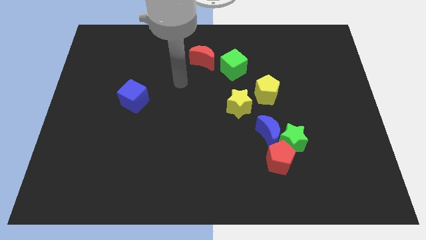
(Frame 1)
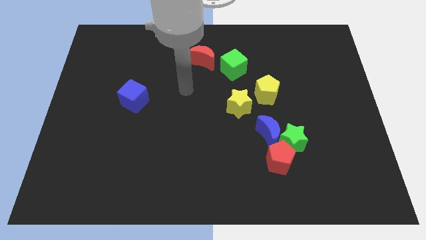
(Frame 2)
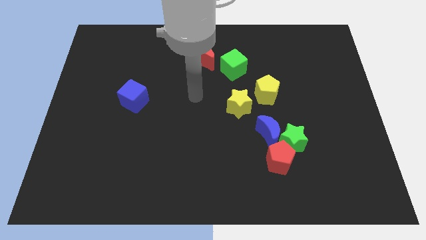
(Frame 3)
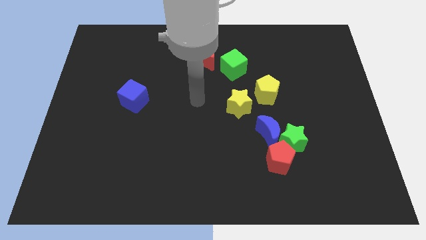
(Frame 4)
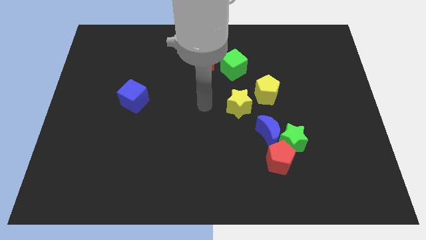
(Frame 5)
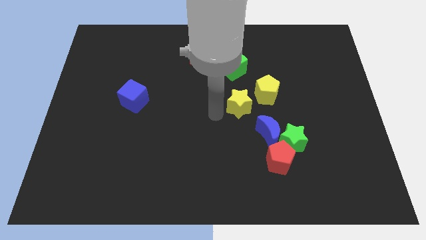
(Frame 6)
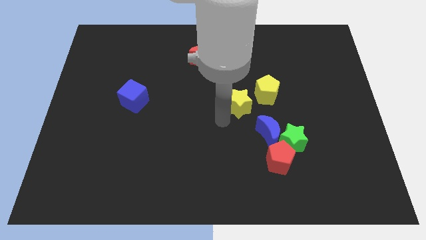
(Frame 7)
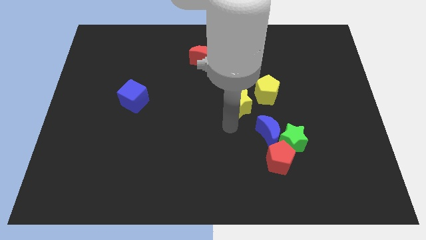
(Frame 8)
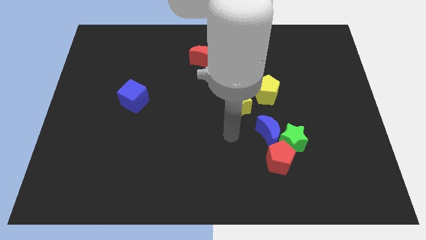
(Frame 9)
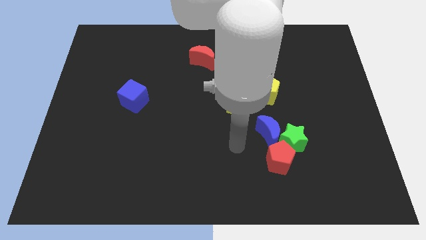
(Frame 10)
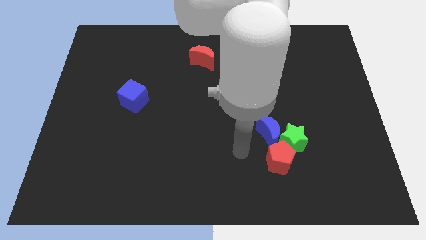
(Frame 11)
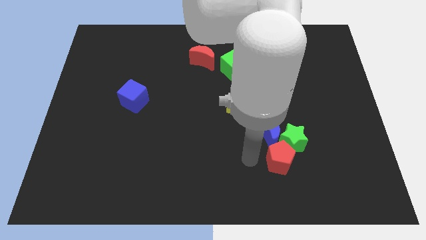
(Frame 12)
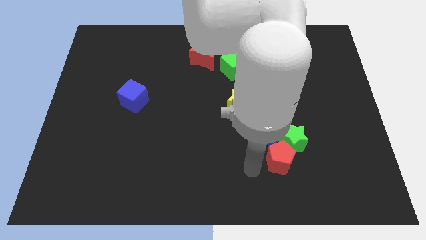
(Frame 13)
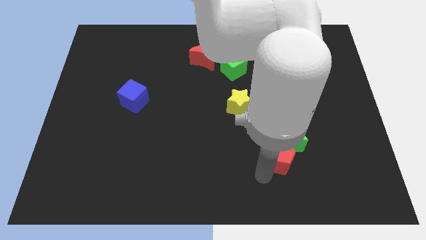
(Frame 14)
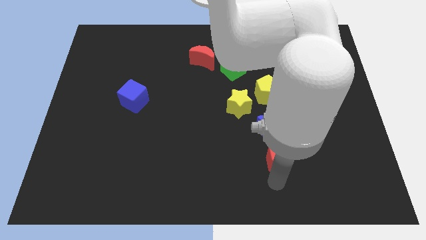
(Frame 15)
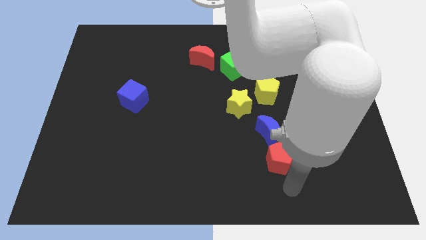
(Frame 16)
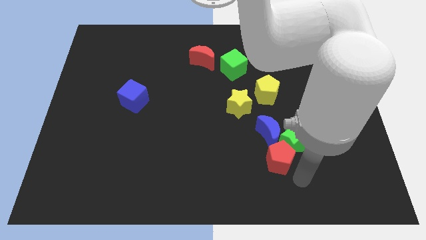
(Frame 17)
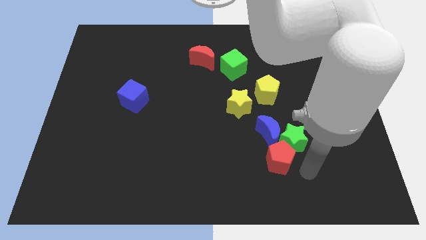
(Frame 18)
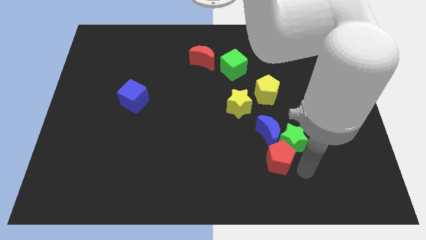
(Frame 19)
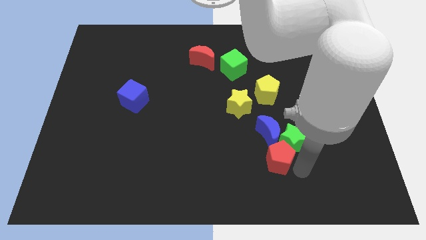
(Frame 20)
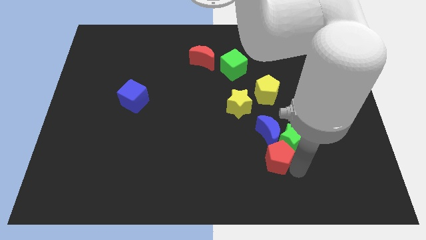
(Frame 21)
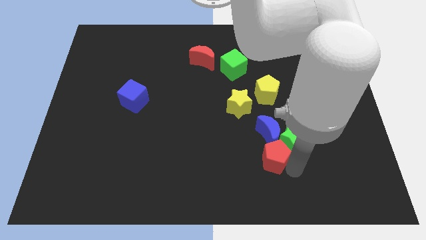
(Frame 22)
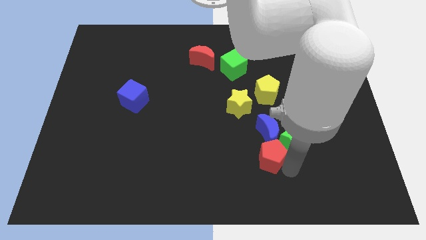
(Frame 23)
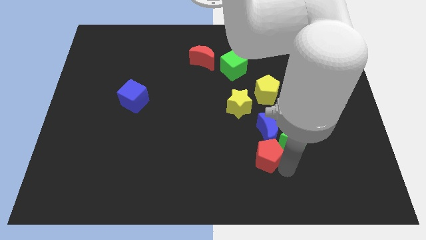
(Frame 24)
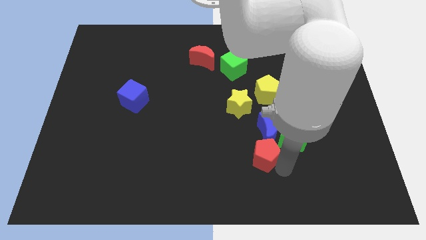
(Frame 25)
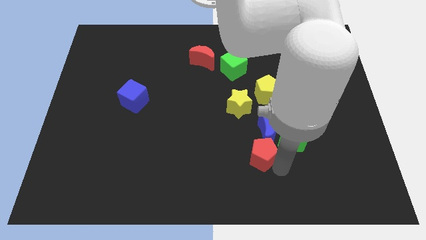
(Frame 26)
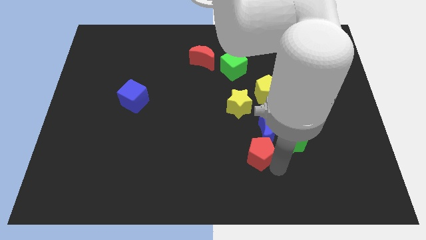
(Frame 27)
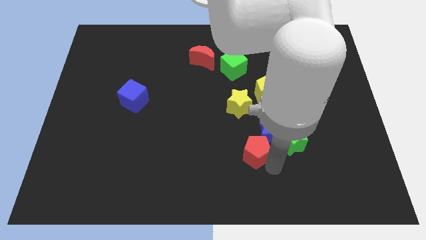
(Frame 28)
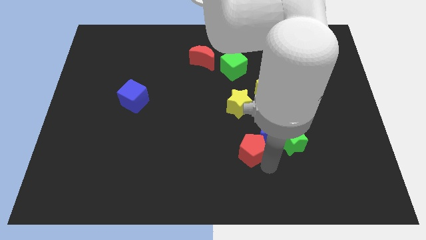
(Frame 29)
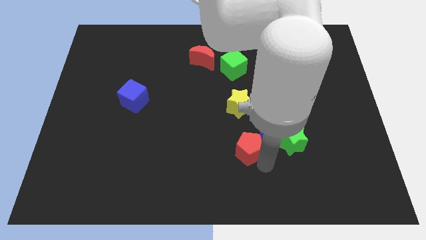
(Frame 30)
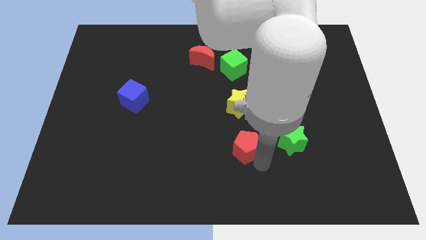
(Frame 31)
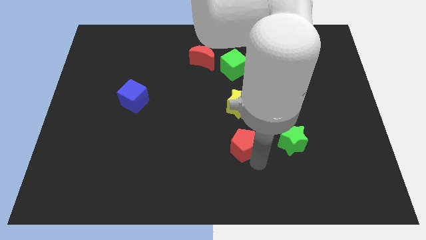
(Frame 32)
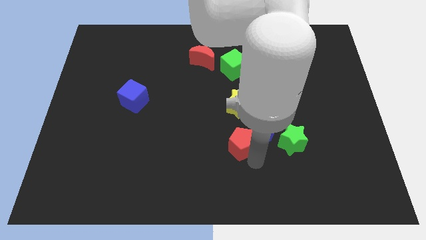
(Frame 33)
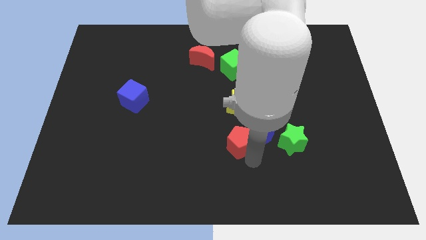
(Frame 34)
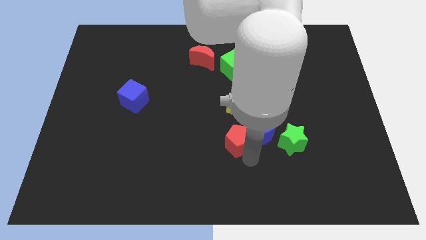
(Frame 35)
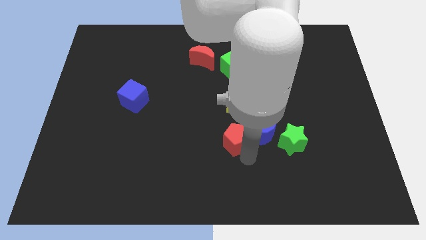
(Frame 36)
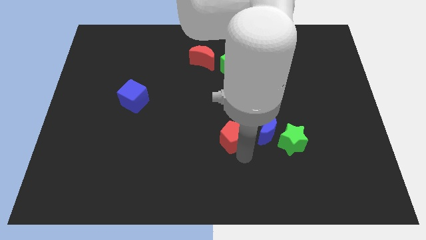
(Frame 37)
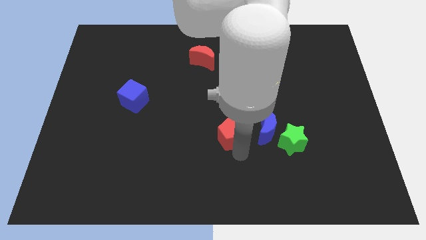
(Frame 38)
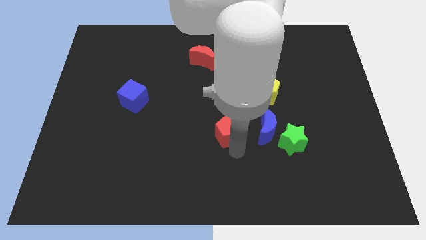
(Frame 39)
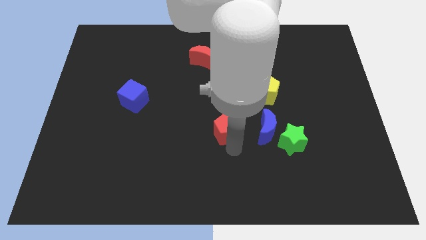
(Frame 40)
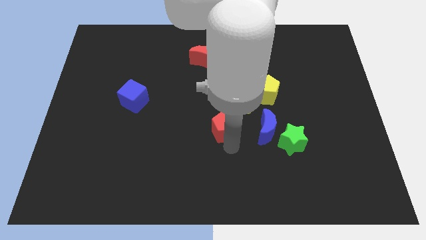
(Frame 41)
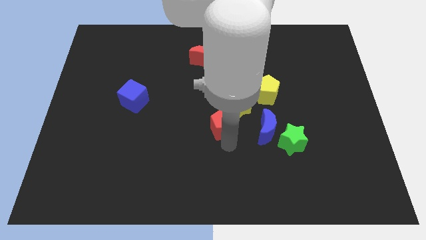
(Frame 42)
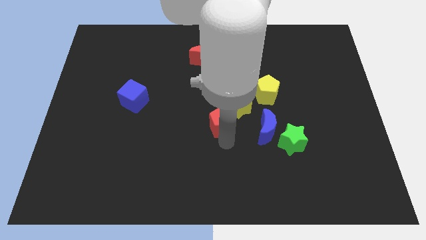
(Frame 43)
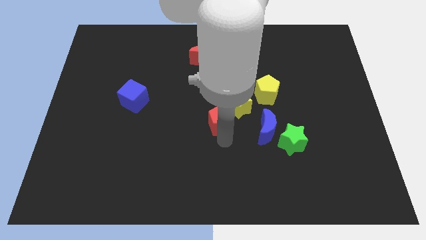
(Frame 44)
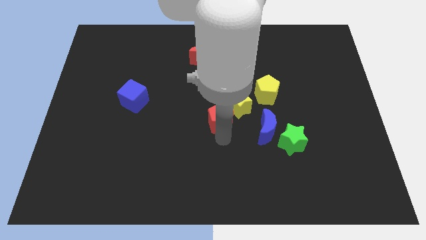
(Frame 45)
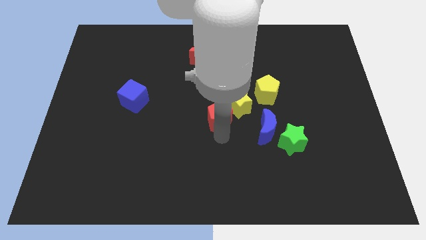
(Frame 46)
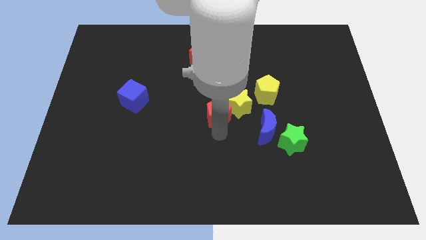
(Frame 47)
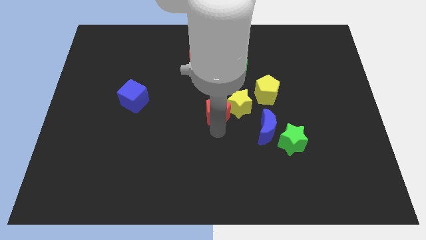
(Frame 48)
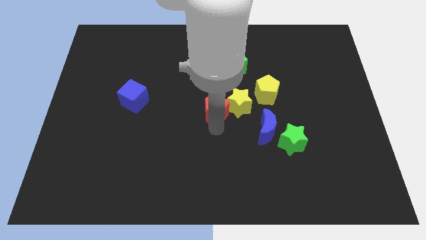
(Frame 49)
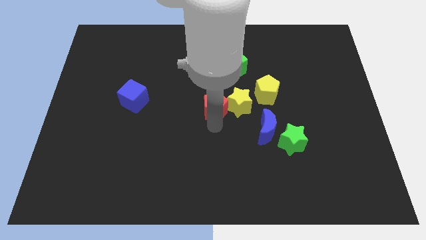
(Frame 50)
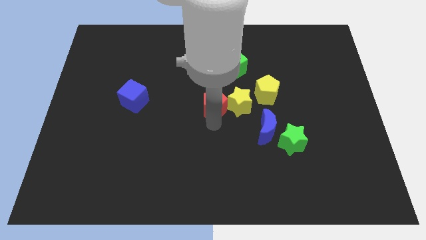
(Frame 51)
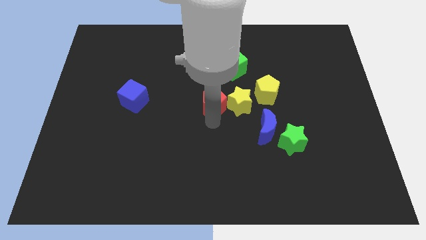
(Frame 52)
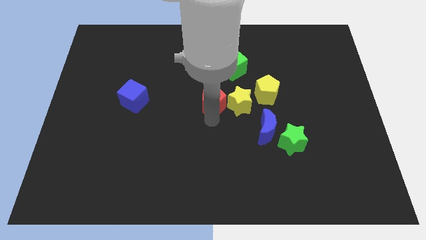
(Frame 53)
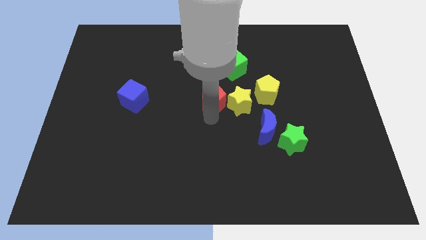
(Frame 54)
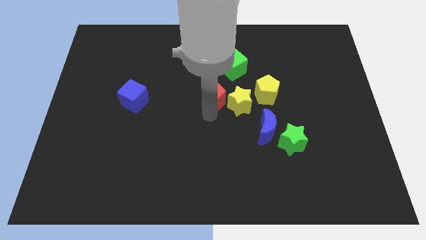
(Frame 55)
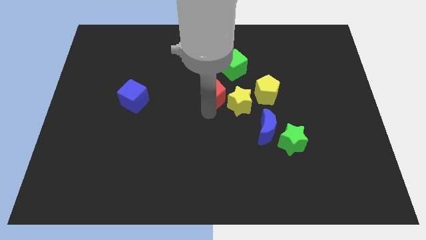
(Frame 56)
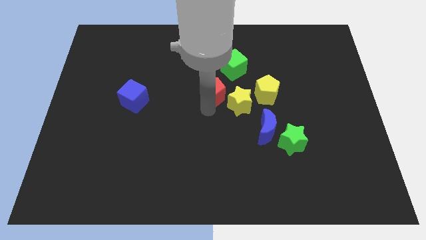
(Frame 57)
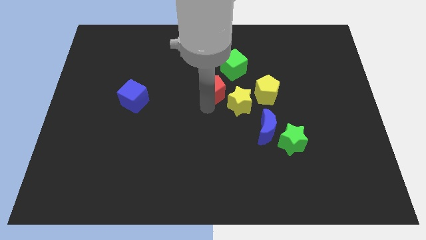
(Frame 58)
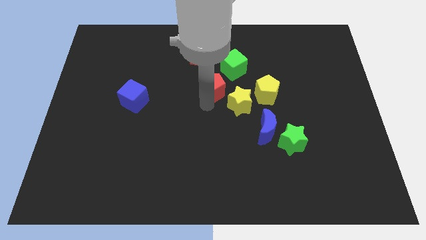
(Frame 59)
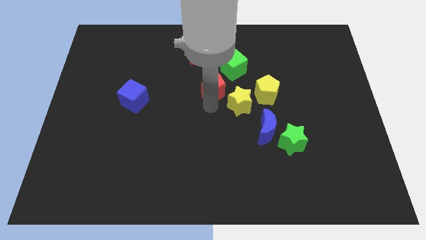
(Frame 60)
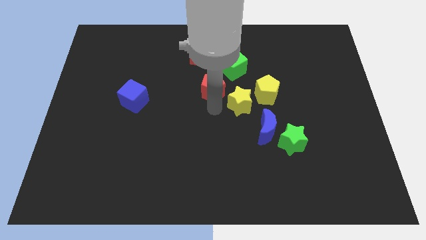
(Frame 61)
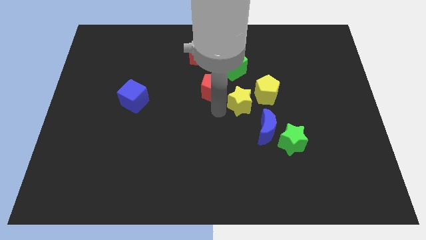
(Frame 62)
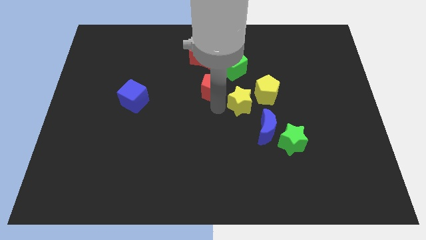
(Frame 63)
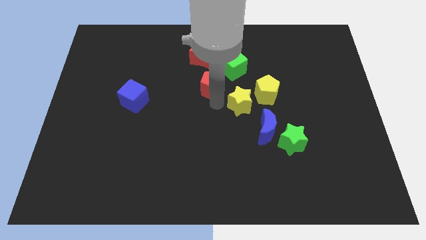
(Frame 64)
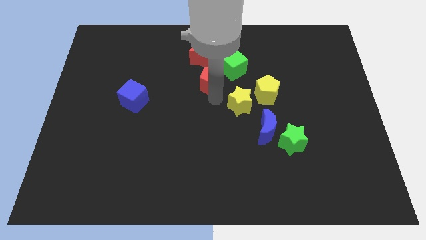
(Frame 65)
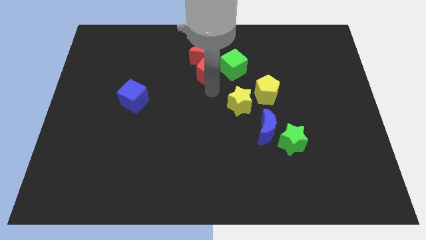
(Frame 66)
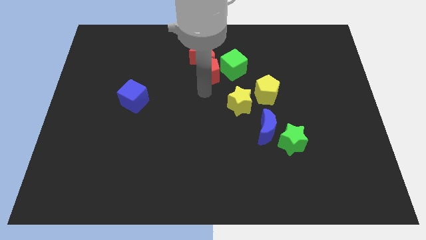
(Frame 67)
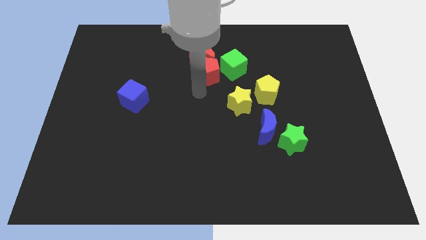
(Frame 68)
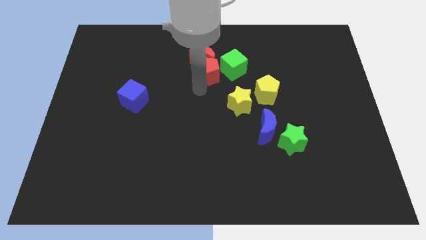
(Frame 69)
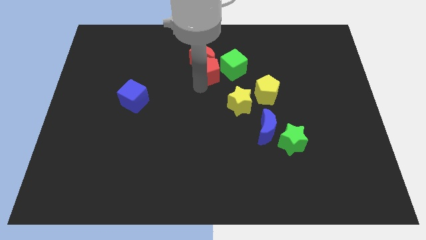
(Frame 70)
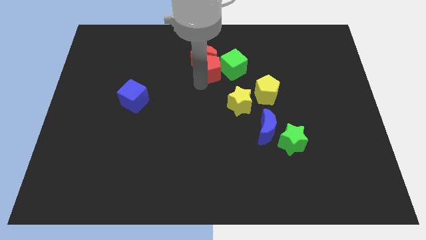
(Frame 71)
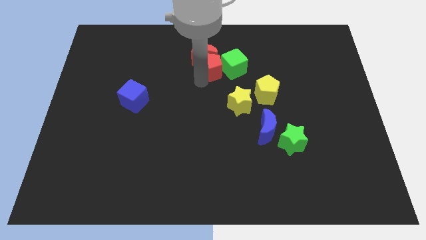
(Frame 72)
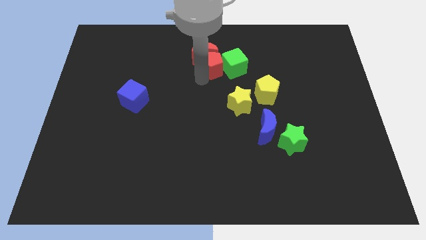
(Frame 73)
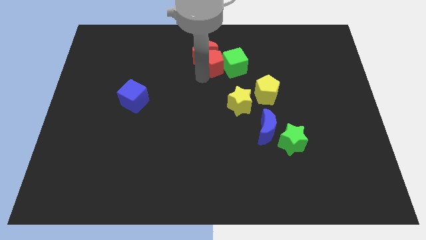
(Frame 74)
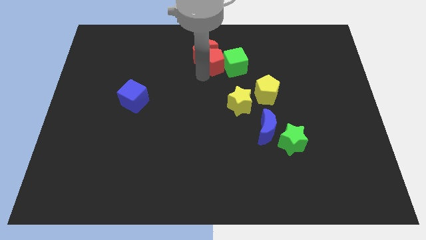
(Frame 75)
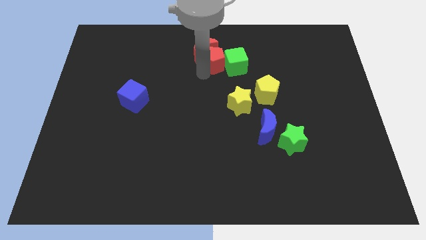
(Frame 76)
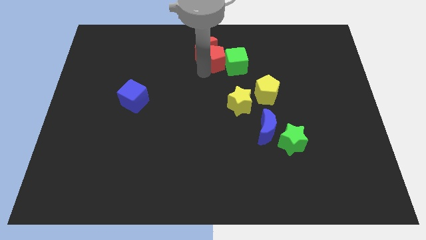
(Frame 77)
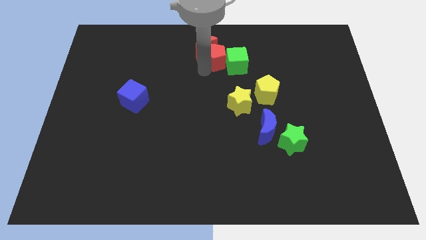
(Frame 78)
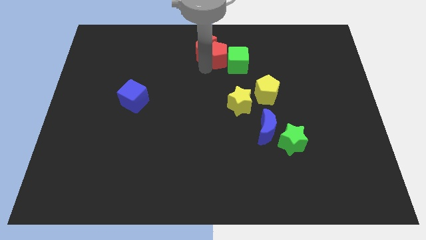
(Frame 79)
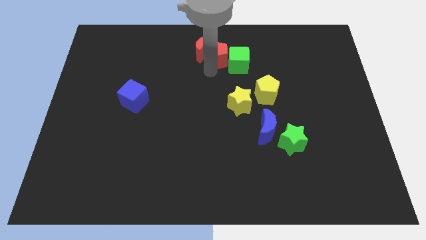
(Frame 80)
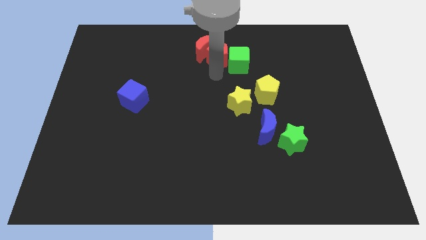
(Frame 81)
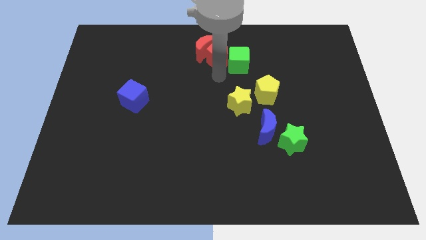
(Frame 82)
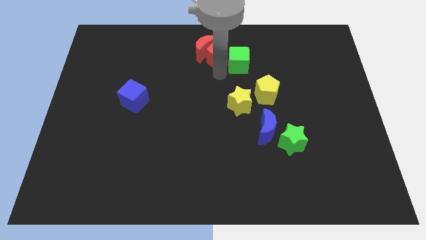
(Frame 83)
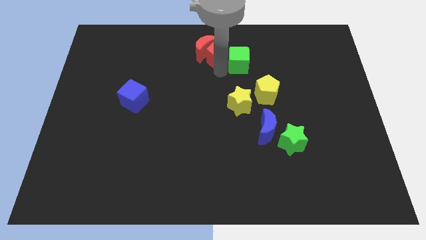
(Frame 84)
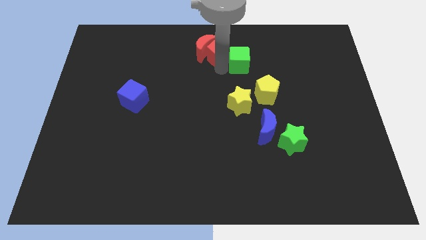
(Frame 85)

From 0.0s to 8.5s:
put the red pentagon to the top side
